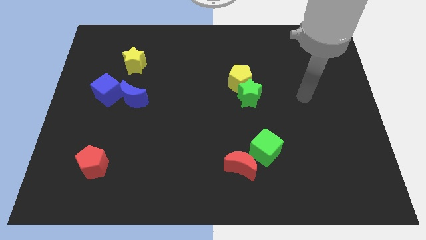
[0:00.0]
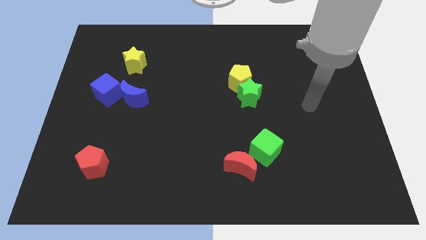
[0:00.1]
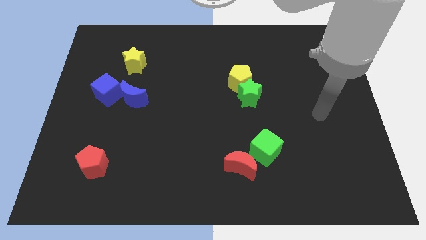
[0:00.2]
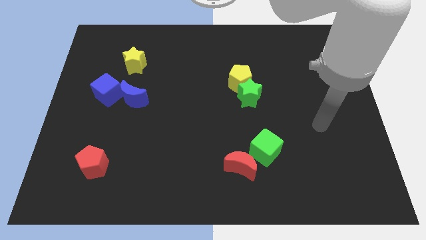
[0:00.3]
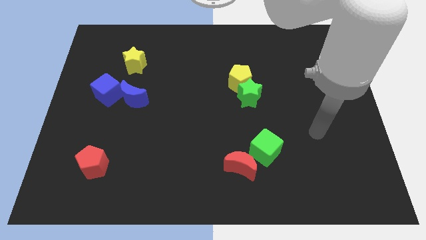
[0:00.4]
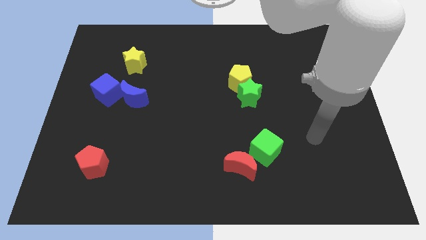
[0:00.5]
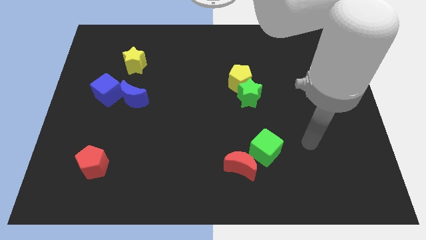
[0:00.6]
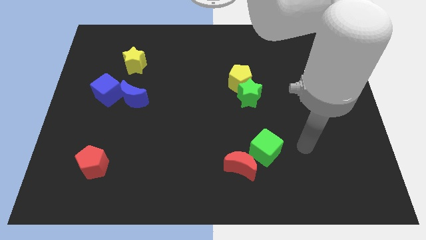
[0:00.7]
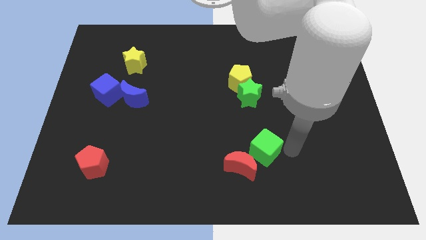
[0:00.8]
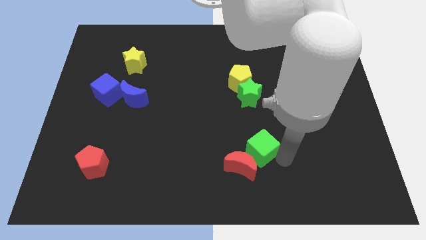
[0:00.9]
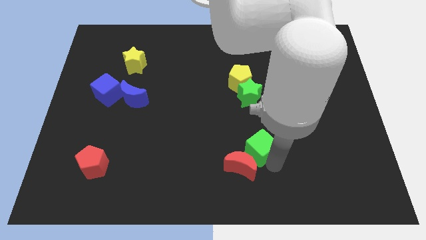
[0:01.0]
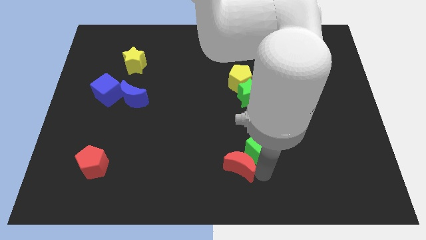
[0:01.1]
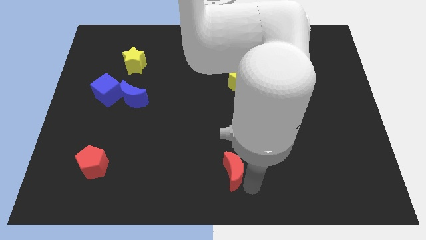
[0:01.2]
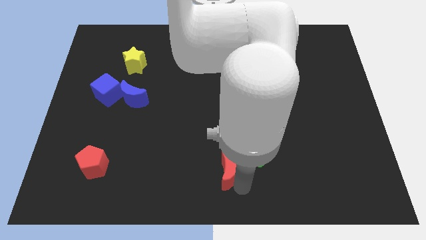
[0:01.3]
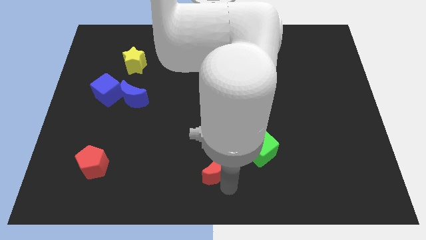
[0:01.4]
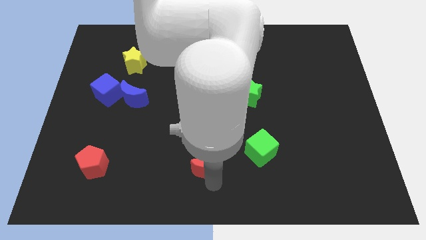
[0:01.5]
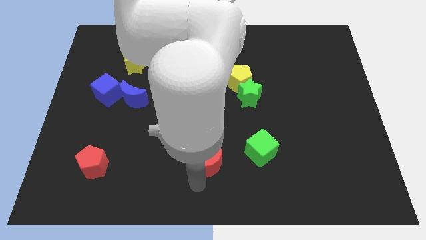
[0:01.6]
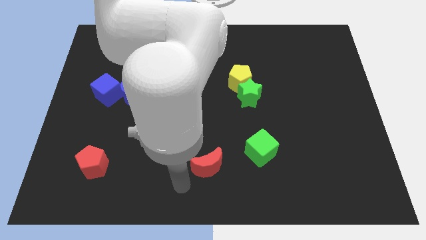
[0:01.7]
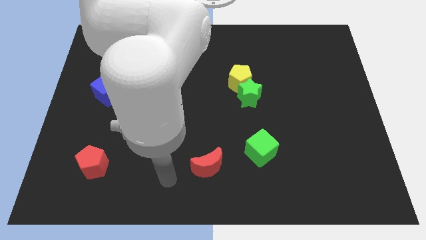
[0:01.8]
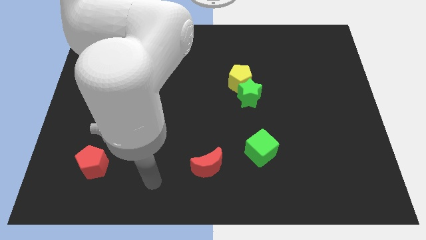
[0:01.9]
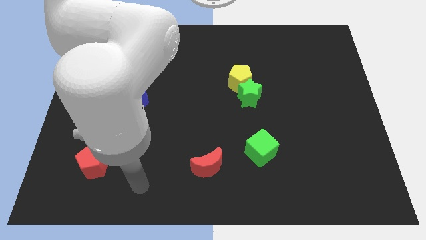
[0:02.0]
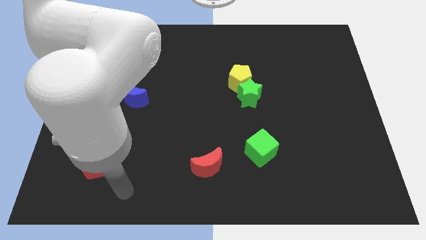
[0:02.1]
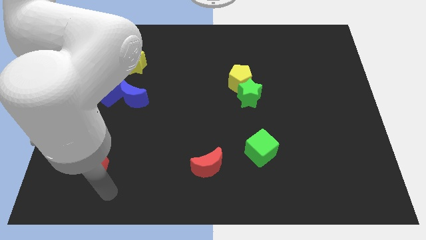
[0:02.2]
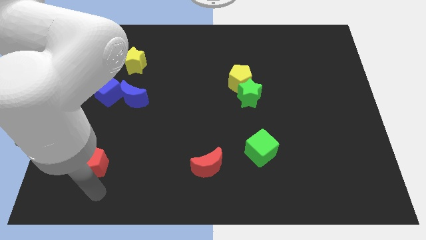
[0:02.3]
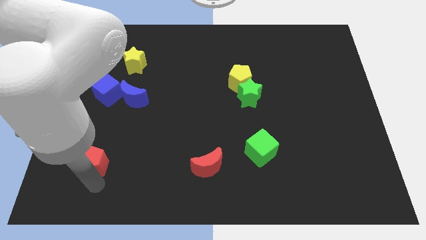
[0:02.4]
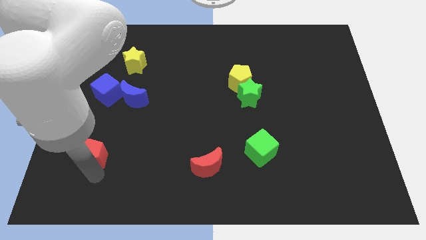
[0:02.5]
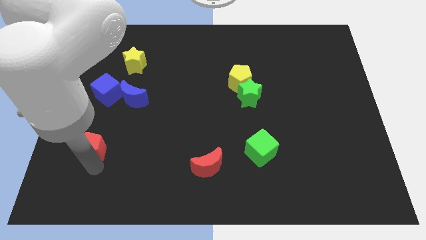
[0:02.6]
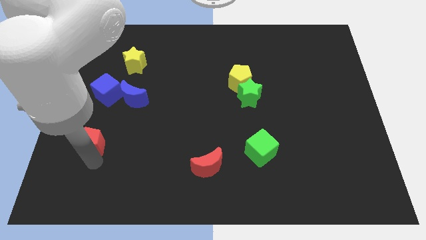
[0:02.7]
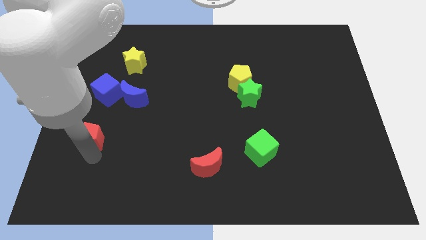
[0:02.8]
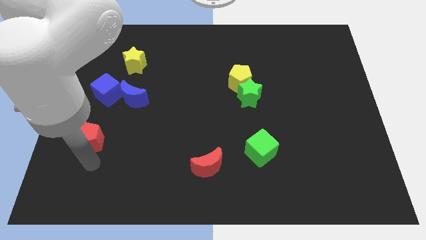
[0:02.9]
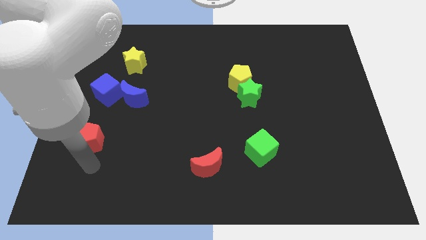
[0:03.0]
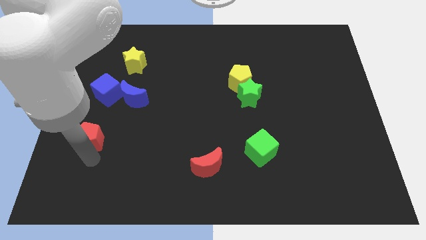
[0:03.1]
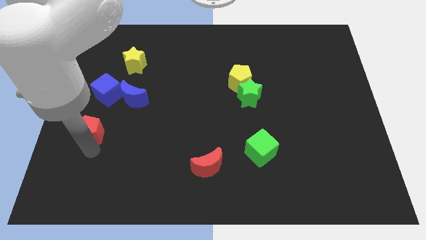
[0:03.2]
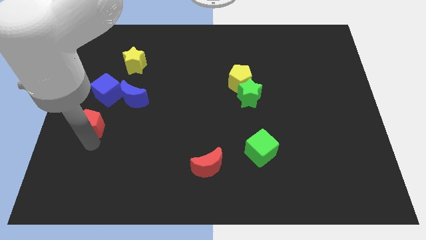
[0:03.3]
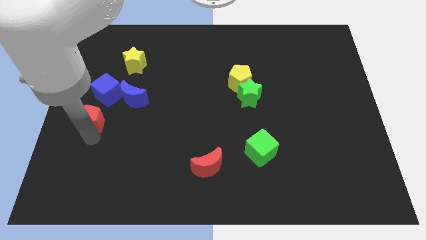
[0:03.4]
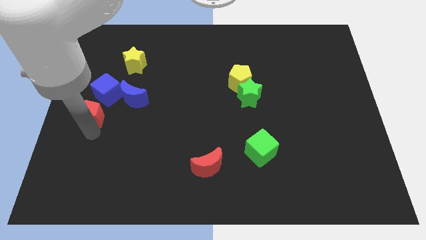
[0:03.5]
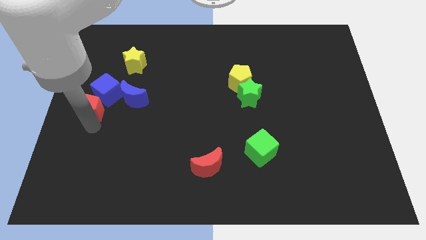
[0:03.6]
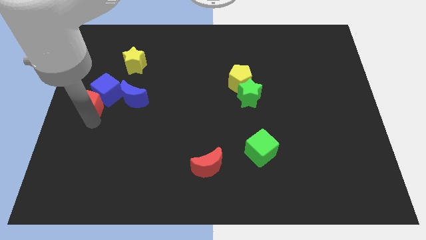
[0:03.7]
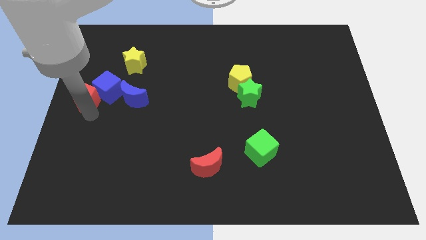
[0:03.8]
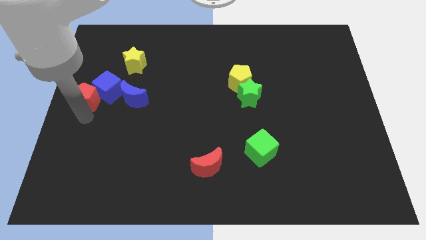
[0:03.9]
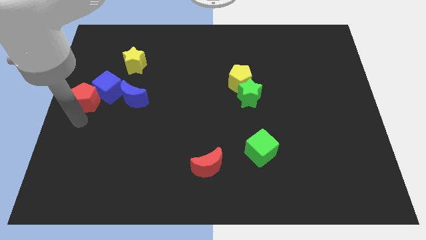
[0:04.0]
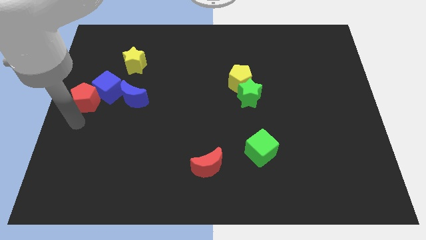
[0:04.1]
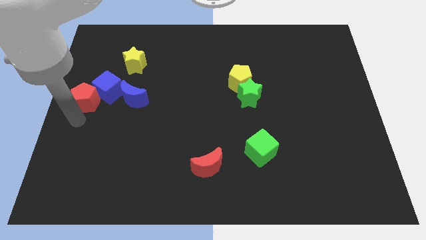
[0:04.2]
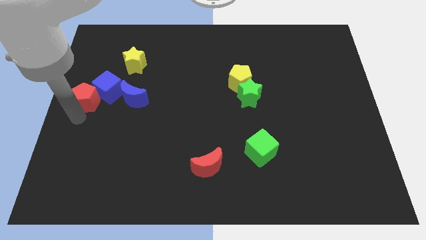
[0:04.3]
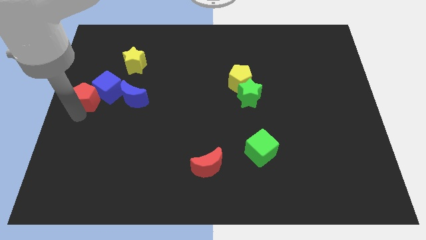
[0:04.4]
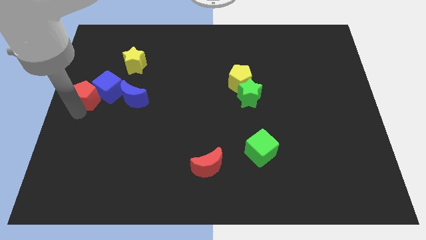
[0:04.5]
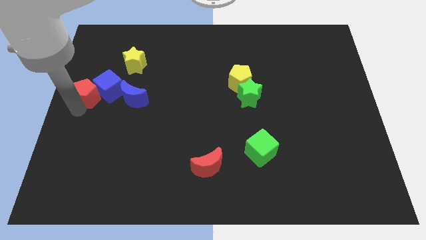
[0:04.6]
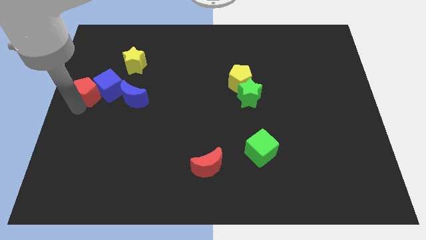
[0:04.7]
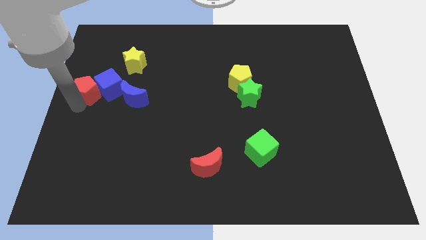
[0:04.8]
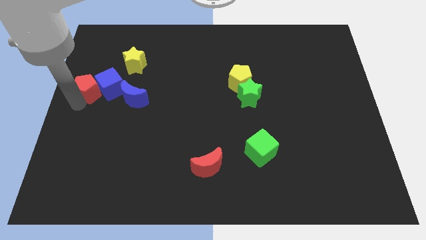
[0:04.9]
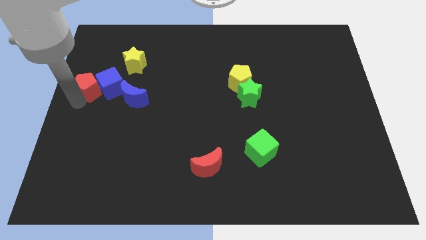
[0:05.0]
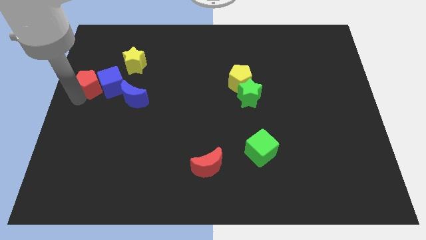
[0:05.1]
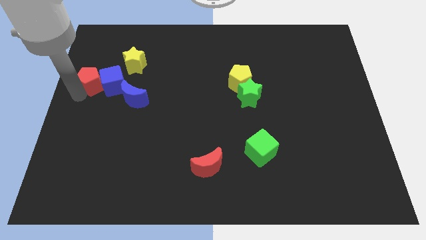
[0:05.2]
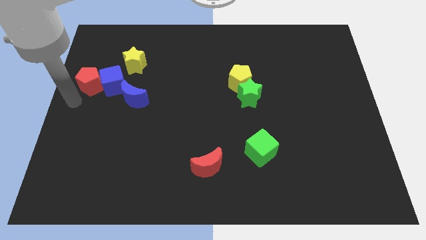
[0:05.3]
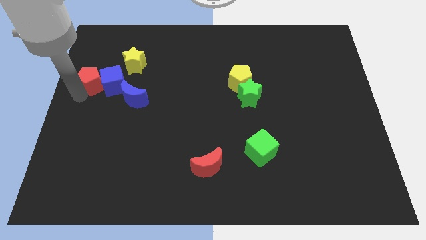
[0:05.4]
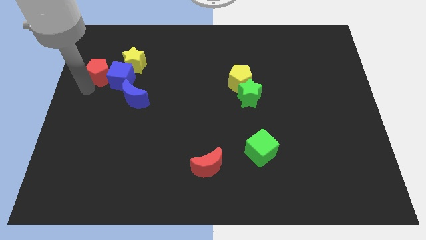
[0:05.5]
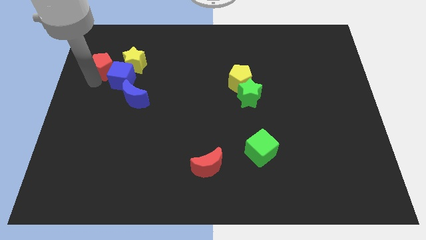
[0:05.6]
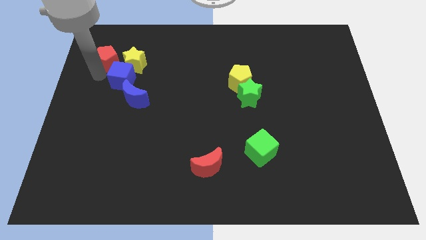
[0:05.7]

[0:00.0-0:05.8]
move the red pentagon to the top of the blue cube

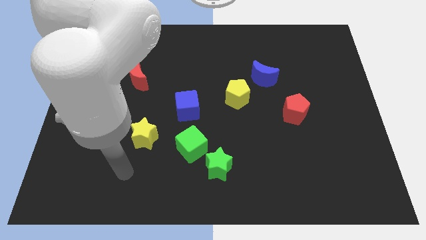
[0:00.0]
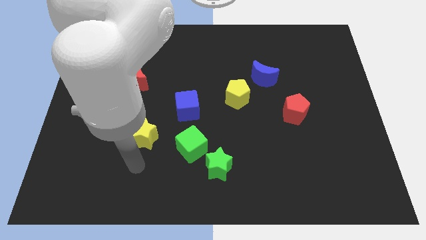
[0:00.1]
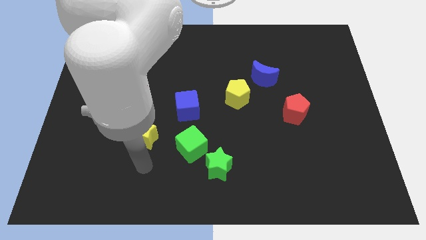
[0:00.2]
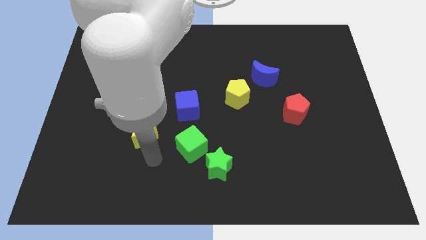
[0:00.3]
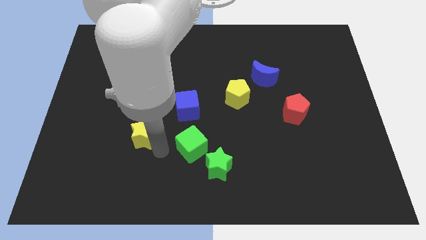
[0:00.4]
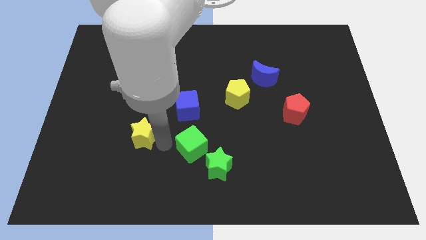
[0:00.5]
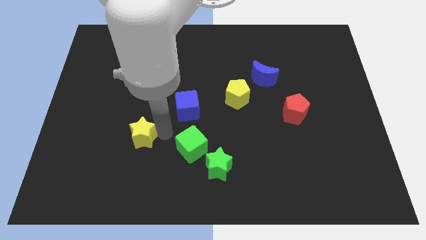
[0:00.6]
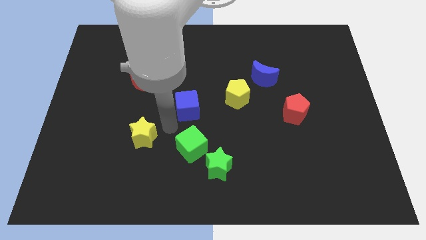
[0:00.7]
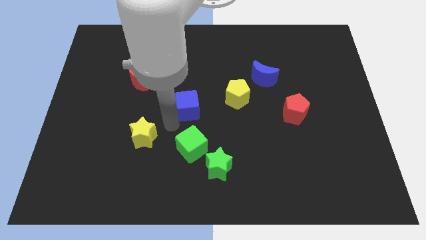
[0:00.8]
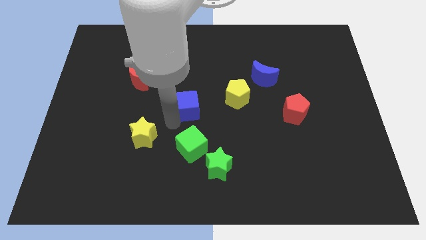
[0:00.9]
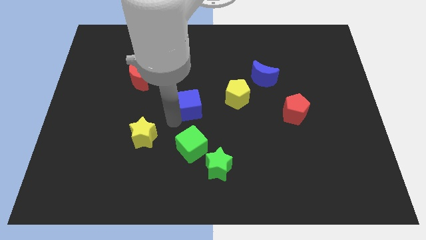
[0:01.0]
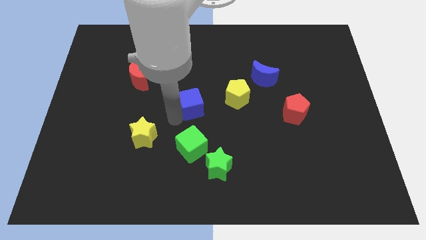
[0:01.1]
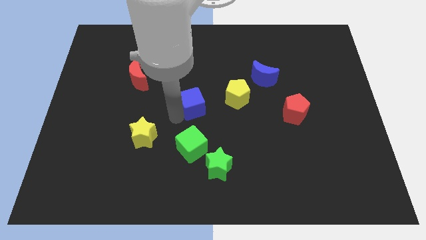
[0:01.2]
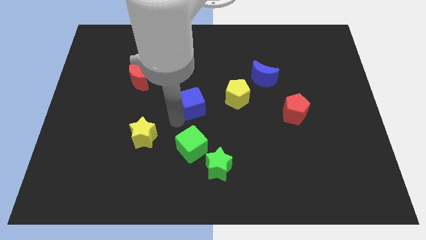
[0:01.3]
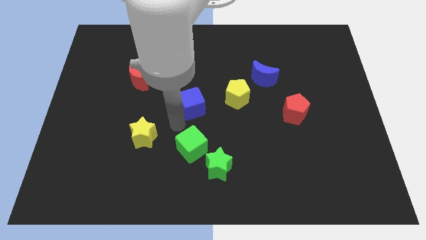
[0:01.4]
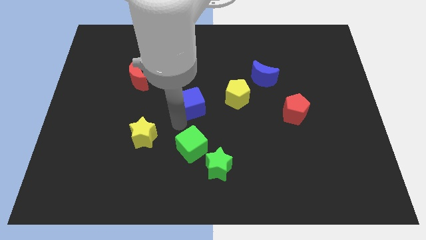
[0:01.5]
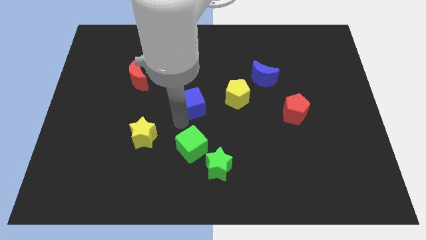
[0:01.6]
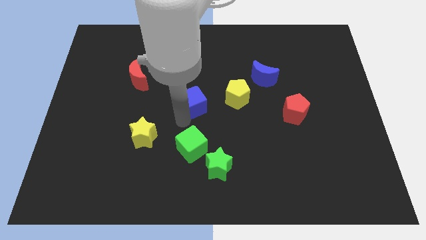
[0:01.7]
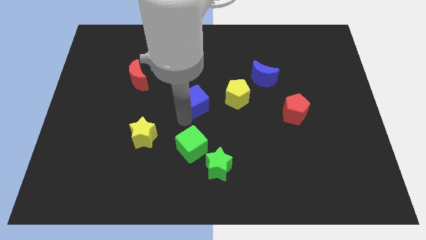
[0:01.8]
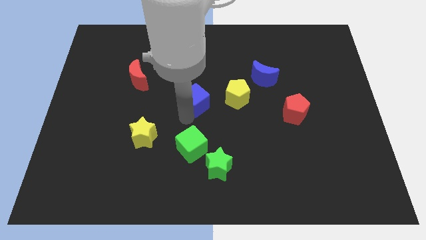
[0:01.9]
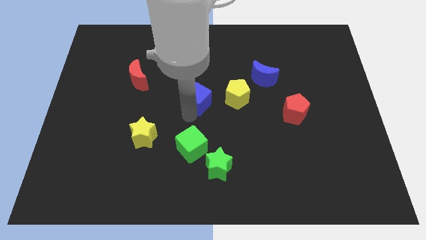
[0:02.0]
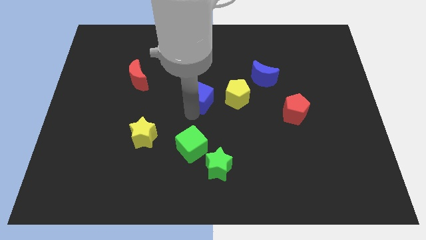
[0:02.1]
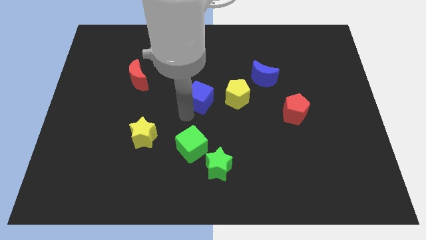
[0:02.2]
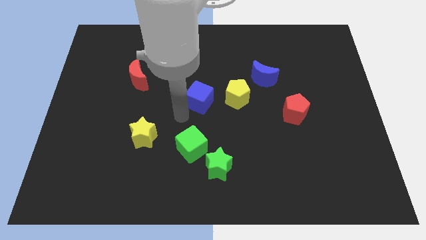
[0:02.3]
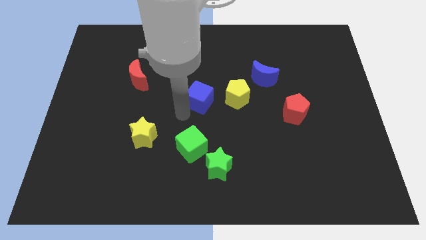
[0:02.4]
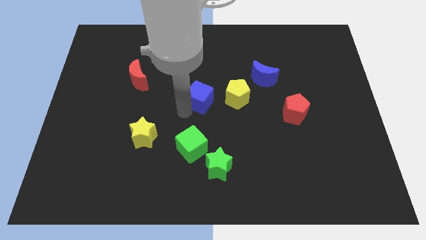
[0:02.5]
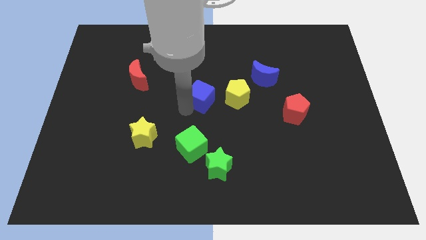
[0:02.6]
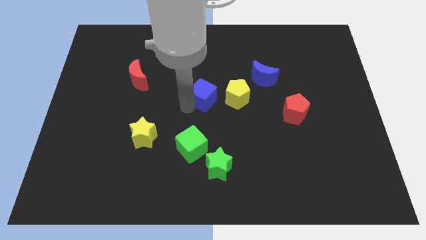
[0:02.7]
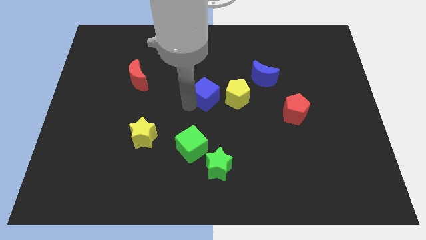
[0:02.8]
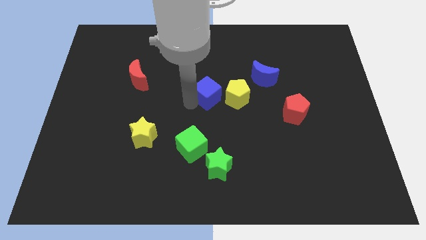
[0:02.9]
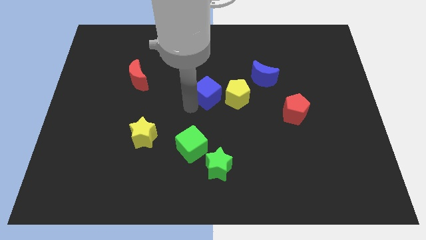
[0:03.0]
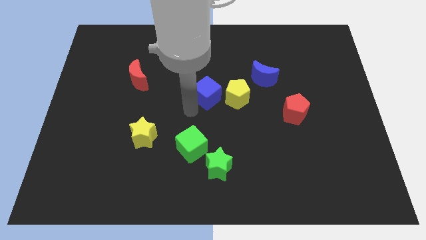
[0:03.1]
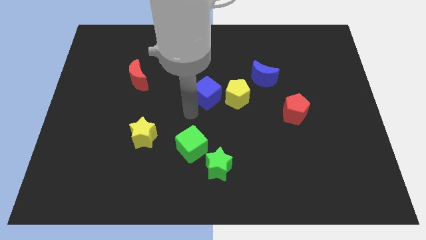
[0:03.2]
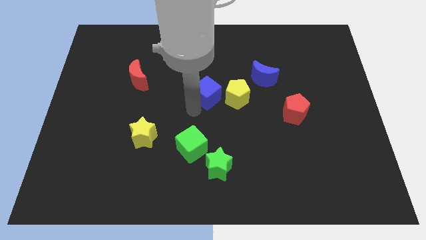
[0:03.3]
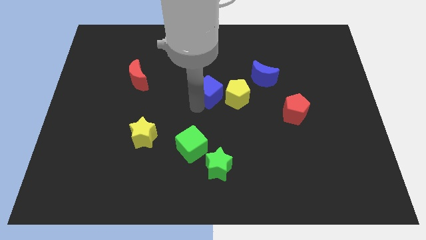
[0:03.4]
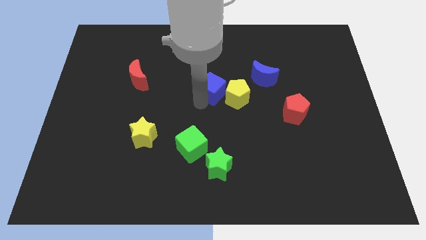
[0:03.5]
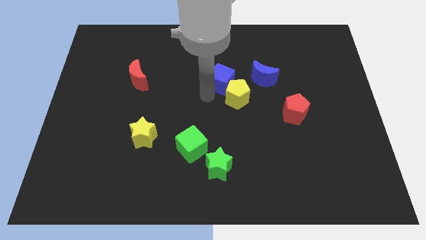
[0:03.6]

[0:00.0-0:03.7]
put the blue cube above the yellow pentagon
